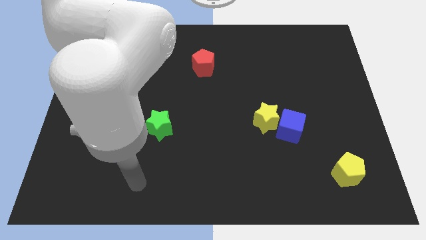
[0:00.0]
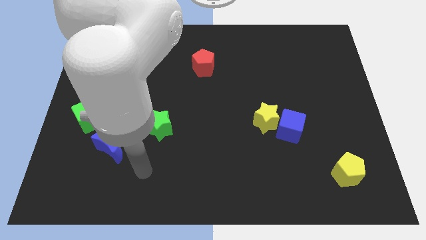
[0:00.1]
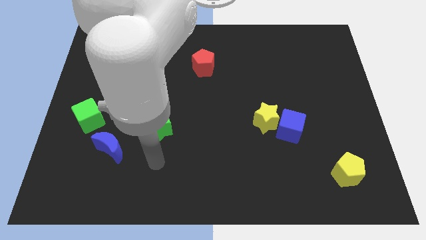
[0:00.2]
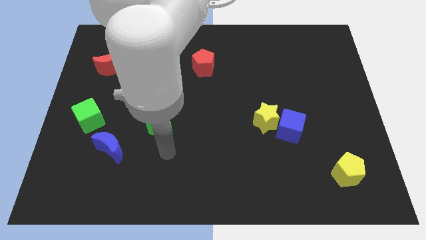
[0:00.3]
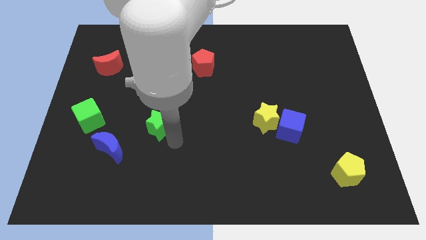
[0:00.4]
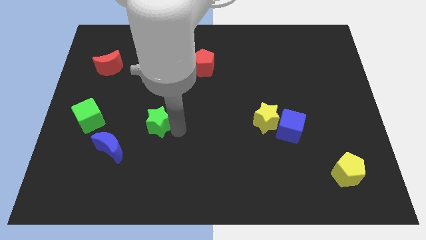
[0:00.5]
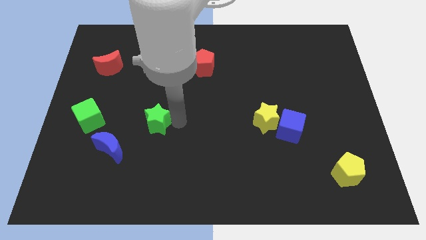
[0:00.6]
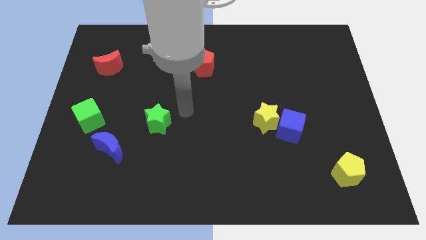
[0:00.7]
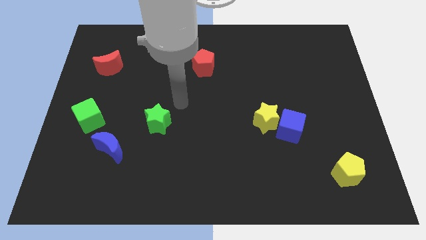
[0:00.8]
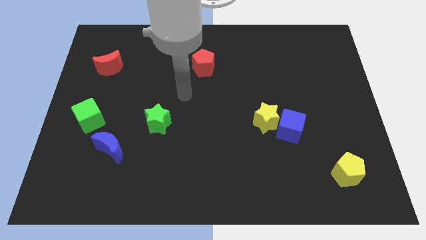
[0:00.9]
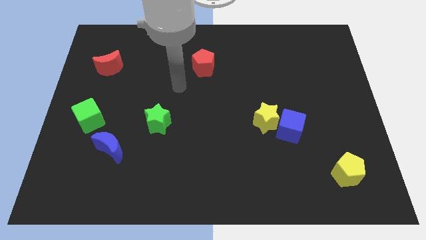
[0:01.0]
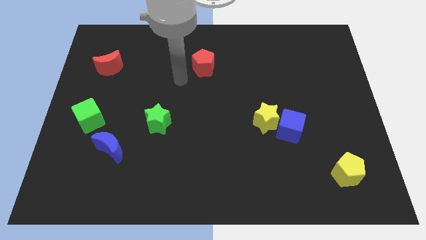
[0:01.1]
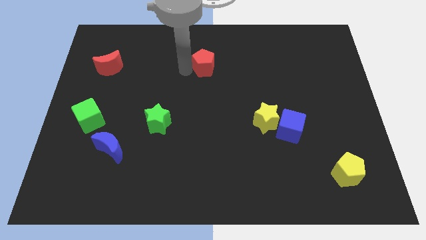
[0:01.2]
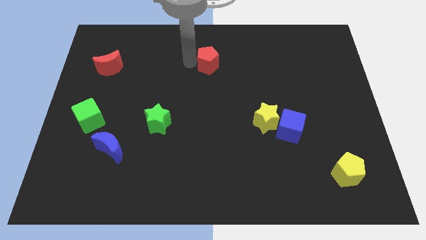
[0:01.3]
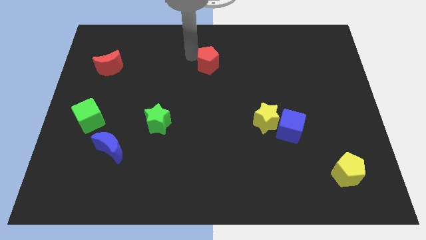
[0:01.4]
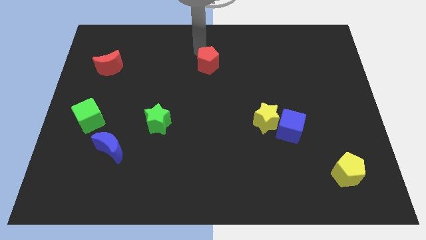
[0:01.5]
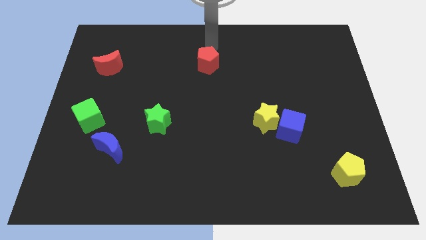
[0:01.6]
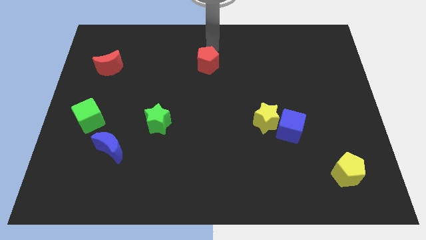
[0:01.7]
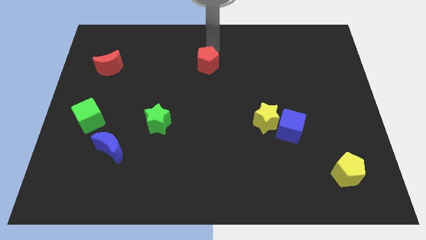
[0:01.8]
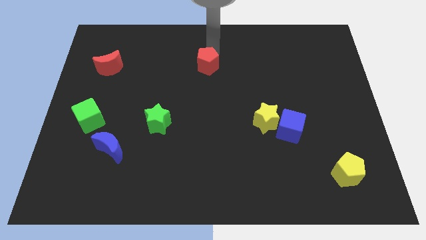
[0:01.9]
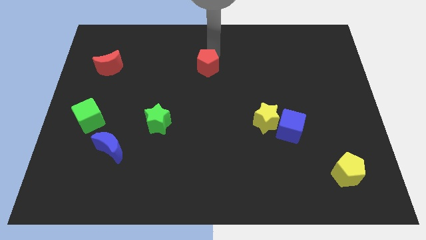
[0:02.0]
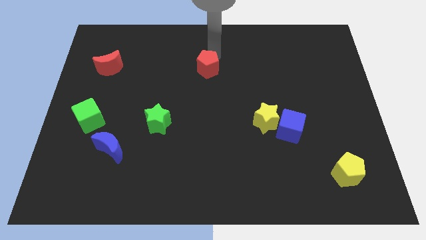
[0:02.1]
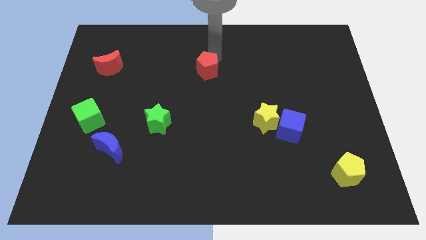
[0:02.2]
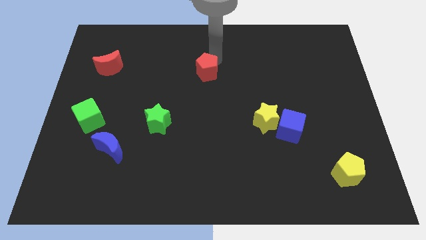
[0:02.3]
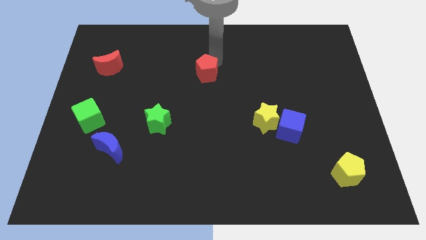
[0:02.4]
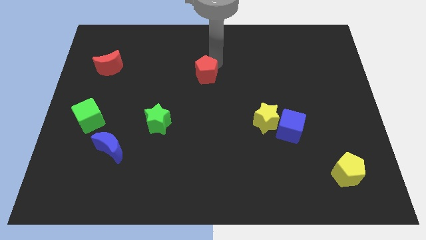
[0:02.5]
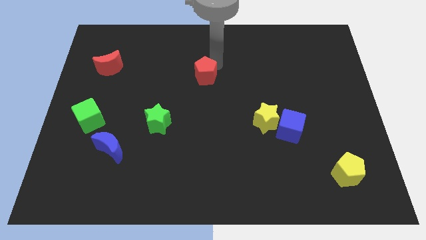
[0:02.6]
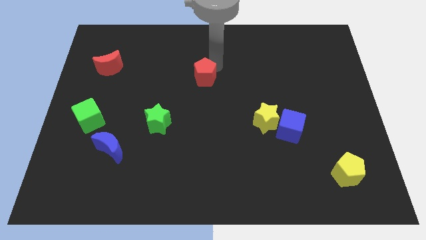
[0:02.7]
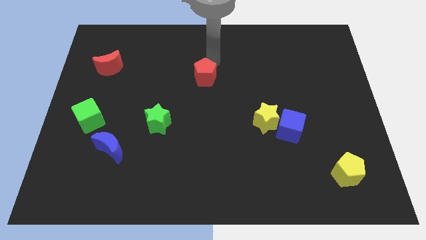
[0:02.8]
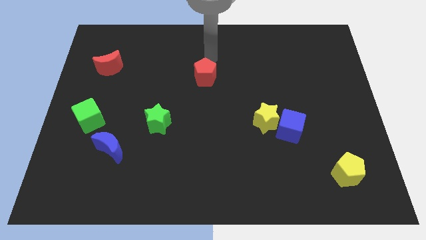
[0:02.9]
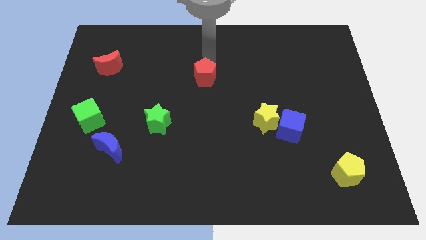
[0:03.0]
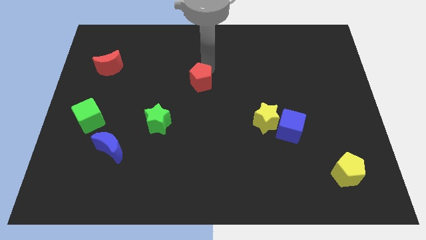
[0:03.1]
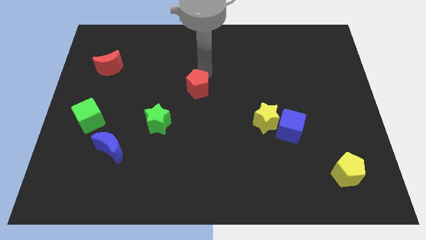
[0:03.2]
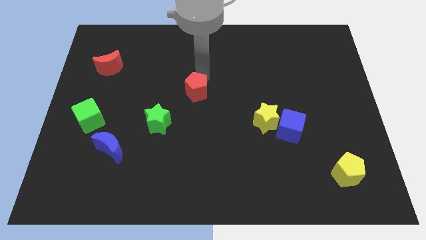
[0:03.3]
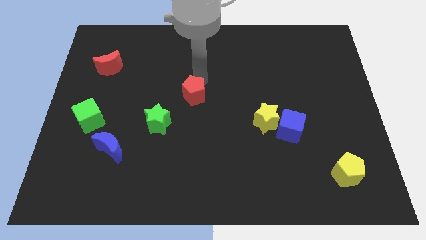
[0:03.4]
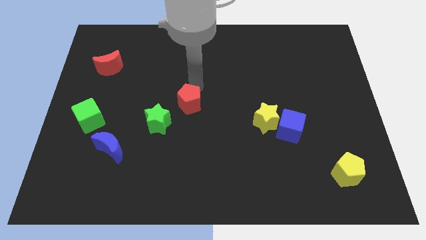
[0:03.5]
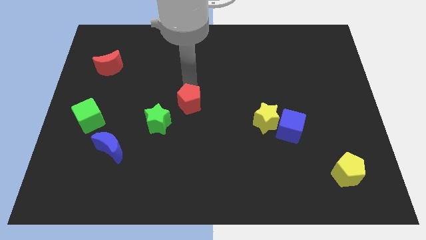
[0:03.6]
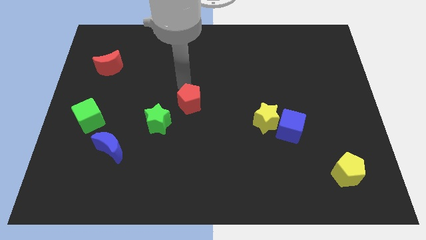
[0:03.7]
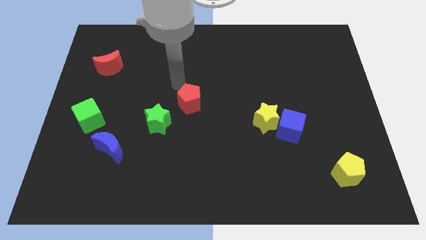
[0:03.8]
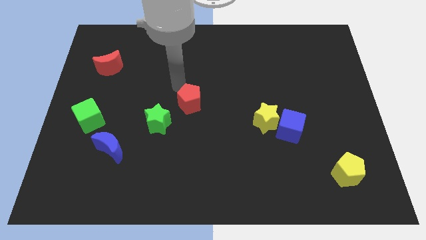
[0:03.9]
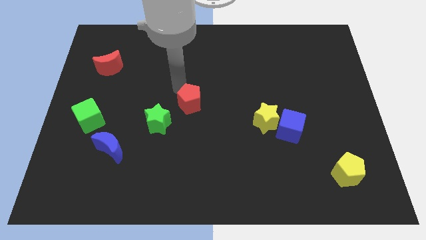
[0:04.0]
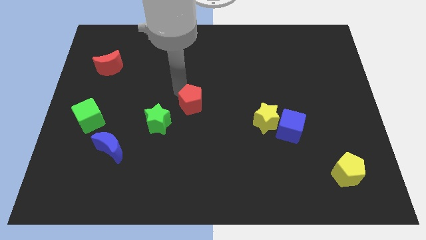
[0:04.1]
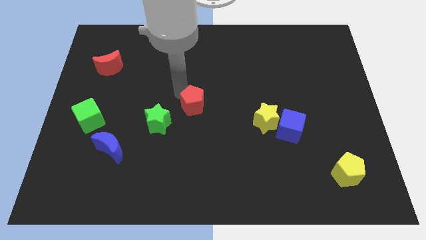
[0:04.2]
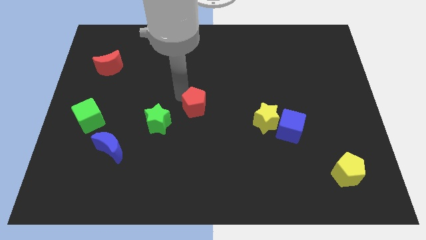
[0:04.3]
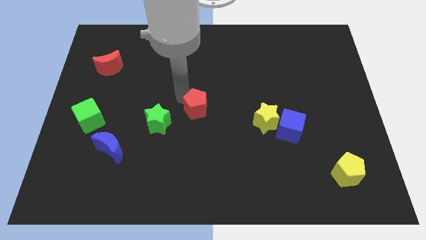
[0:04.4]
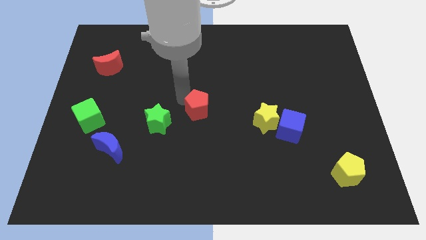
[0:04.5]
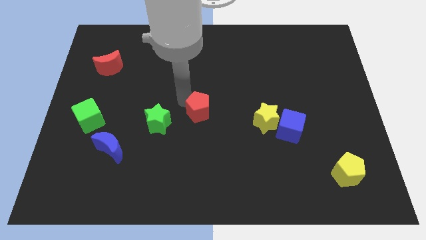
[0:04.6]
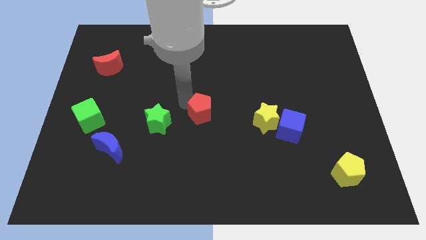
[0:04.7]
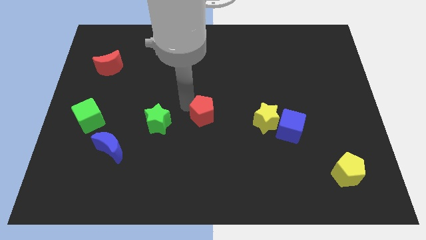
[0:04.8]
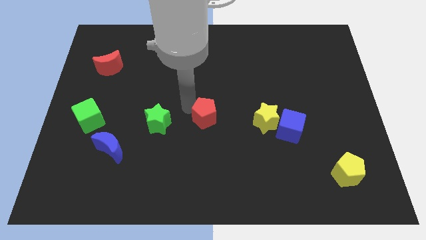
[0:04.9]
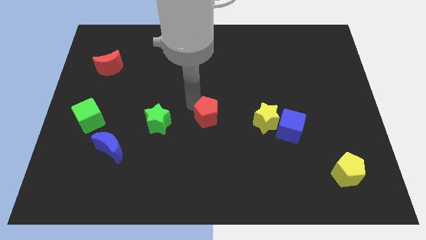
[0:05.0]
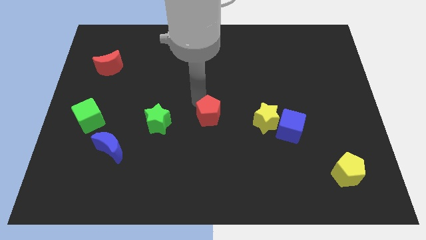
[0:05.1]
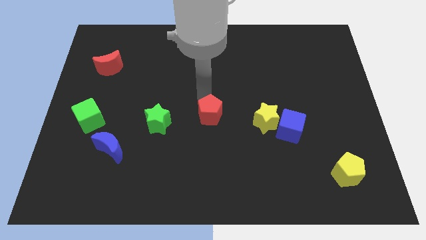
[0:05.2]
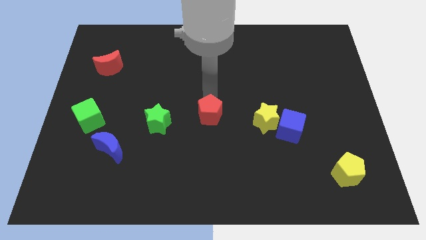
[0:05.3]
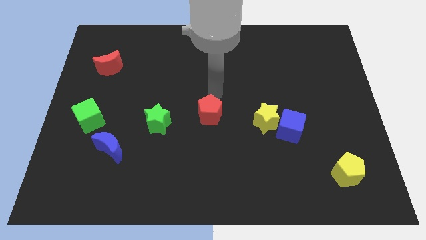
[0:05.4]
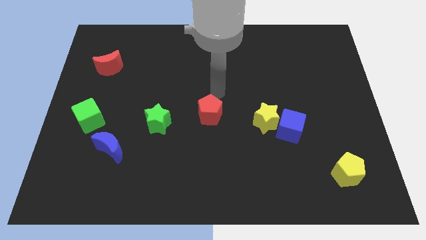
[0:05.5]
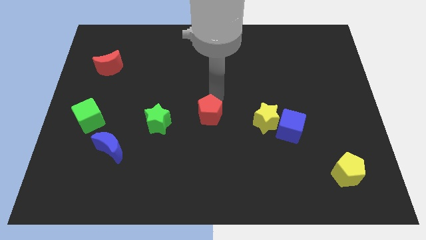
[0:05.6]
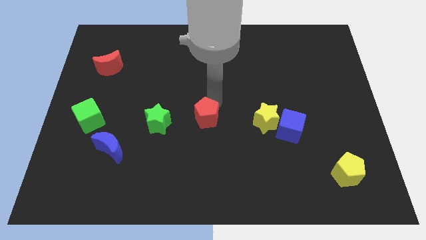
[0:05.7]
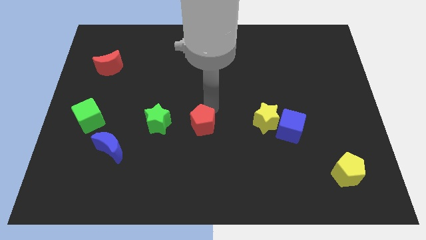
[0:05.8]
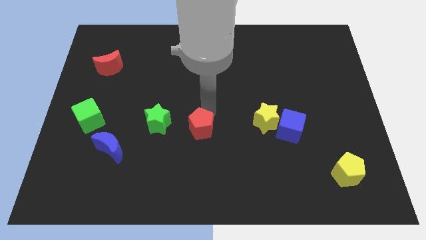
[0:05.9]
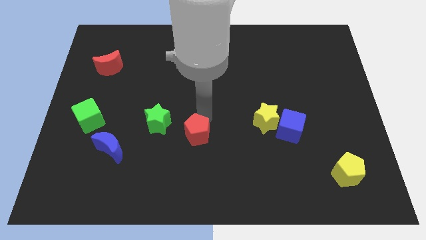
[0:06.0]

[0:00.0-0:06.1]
push the red pentagon down

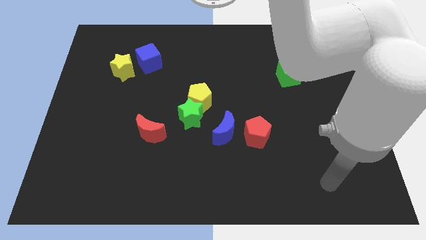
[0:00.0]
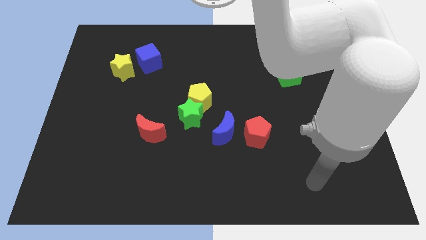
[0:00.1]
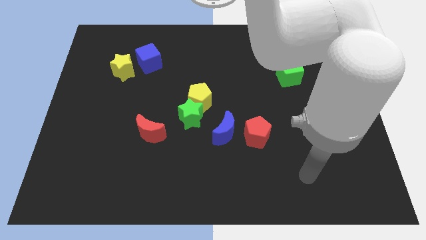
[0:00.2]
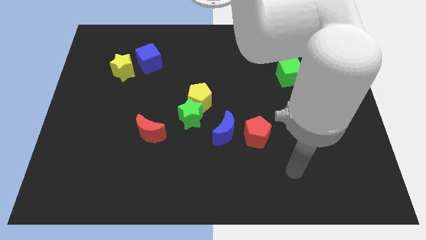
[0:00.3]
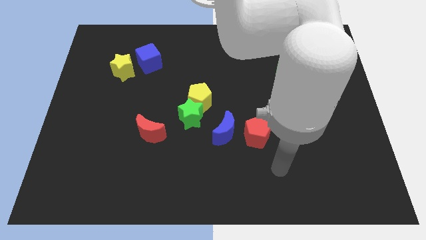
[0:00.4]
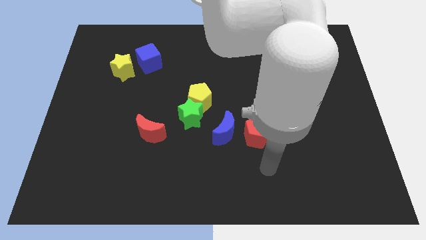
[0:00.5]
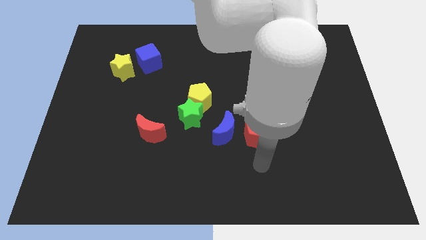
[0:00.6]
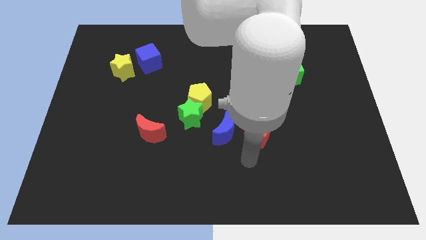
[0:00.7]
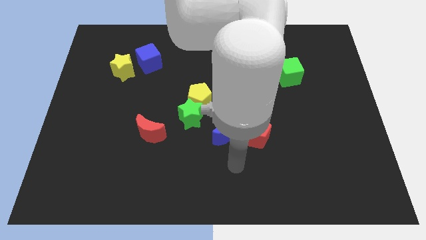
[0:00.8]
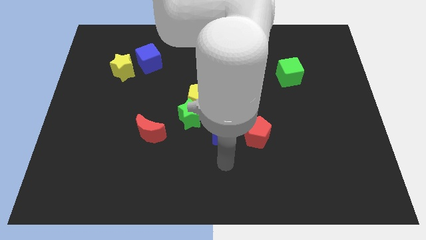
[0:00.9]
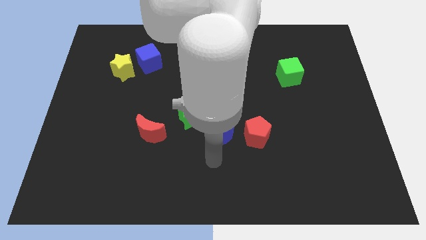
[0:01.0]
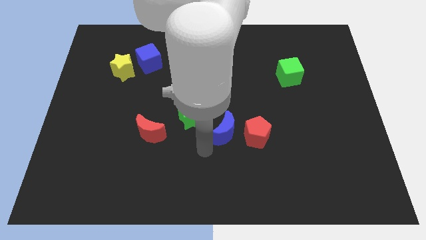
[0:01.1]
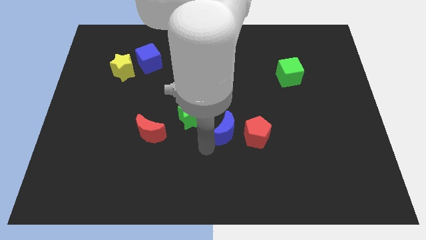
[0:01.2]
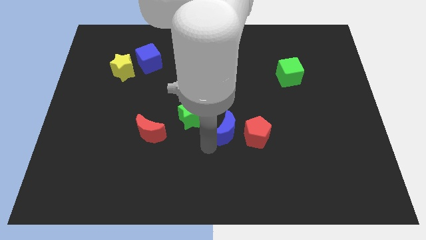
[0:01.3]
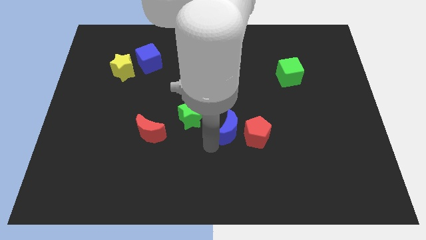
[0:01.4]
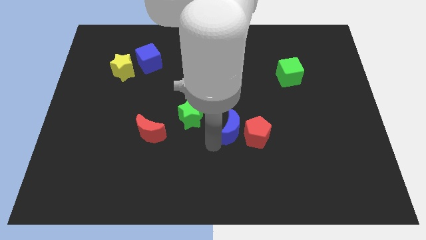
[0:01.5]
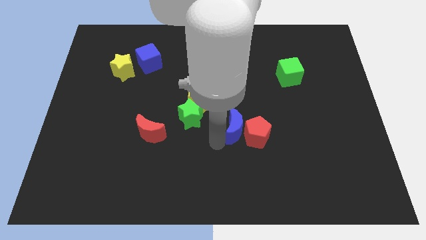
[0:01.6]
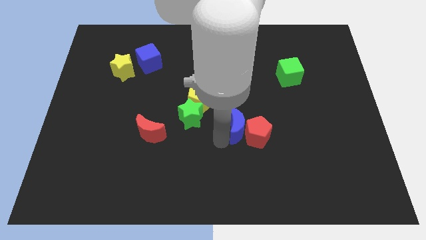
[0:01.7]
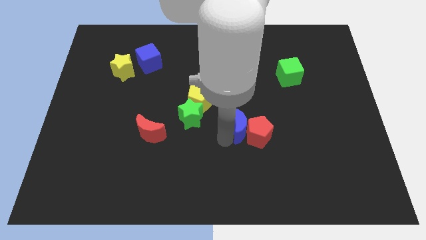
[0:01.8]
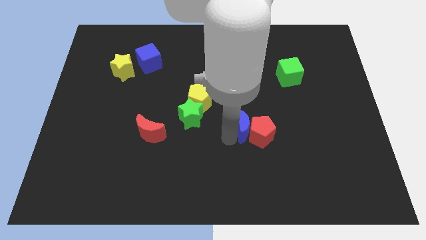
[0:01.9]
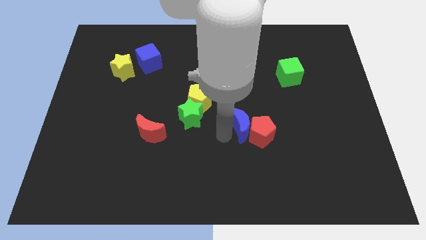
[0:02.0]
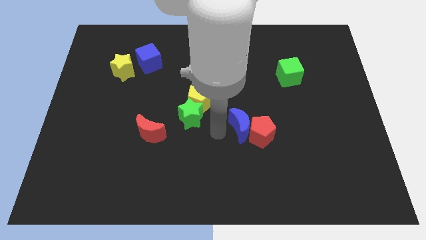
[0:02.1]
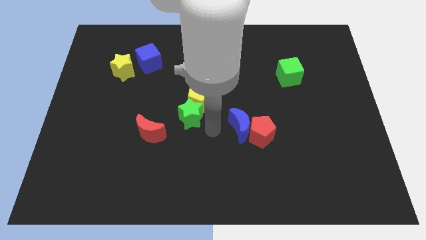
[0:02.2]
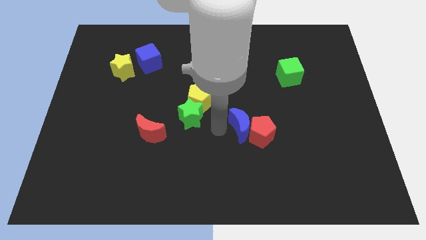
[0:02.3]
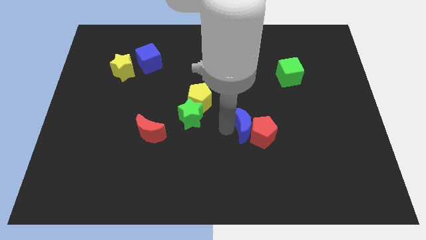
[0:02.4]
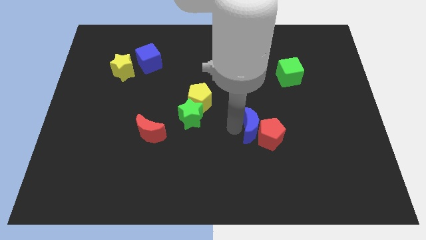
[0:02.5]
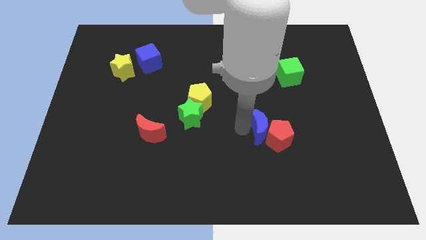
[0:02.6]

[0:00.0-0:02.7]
move the blue moon right a bit
